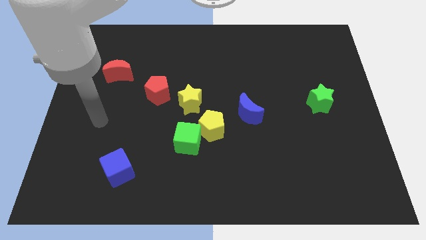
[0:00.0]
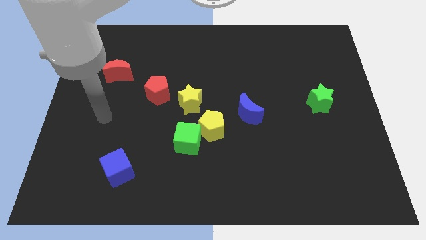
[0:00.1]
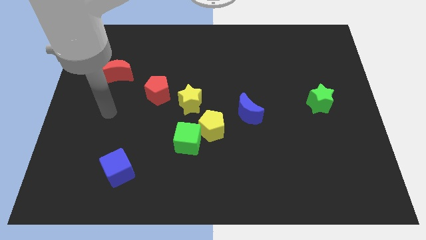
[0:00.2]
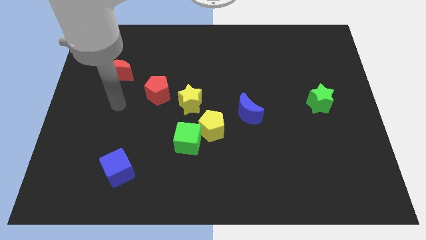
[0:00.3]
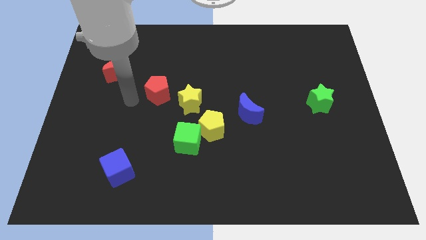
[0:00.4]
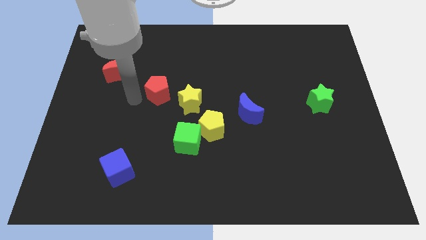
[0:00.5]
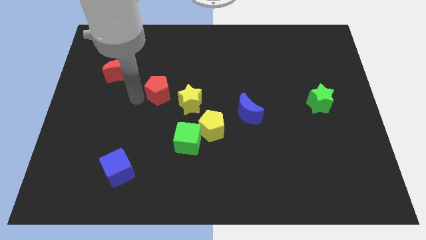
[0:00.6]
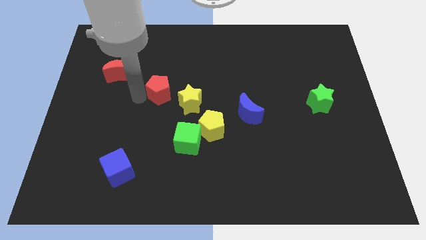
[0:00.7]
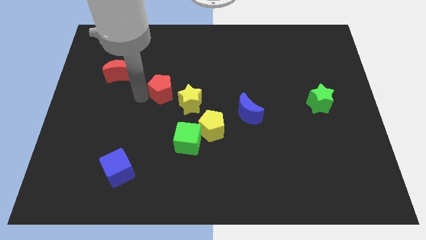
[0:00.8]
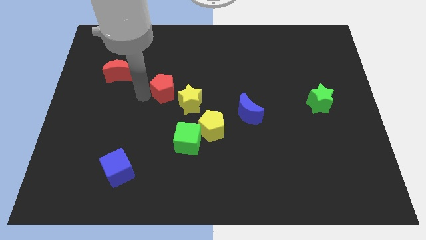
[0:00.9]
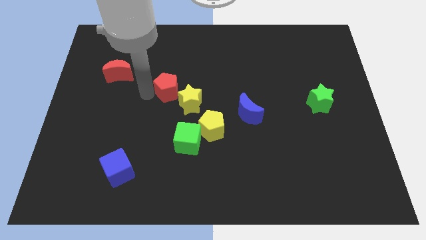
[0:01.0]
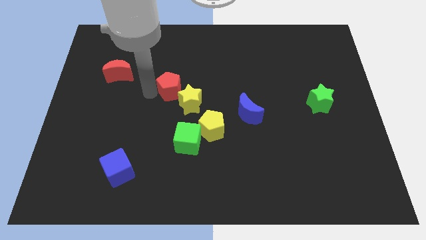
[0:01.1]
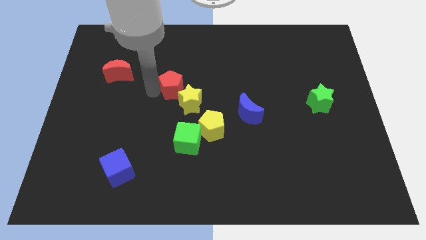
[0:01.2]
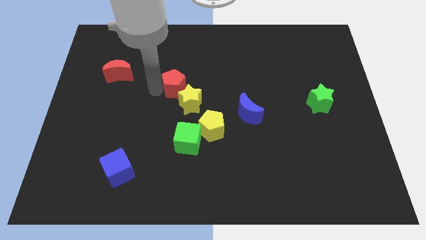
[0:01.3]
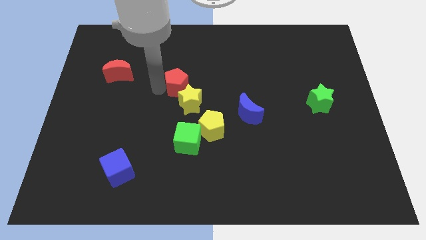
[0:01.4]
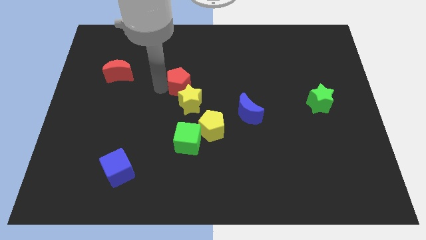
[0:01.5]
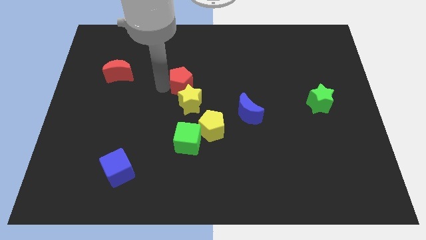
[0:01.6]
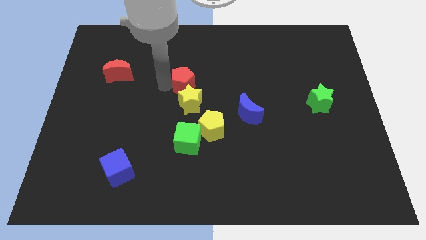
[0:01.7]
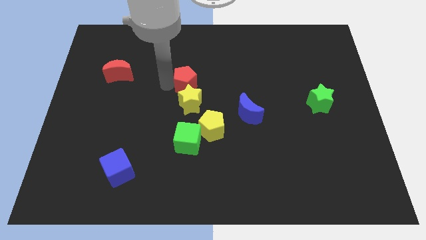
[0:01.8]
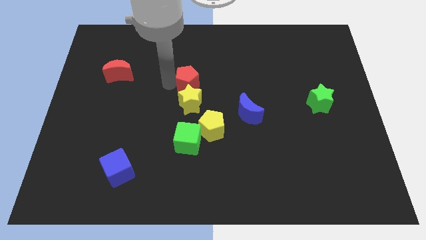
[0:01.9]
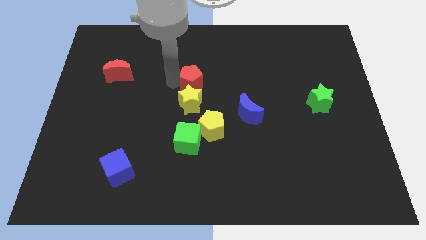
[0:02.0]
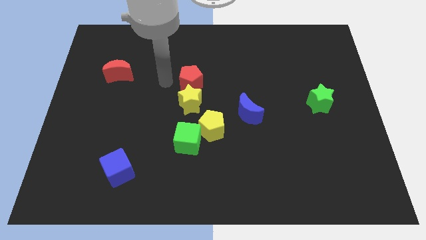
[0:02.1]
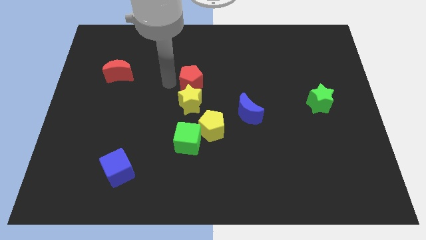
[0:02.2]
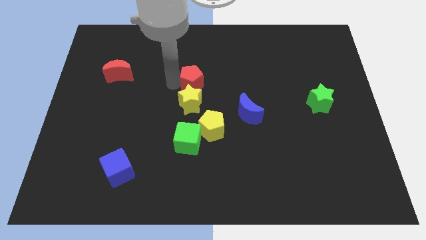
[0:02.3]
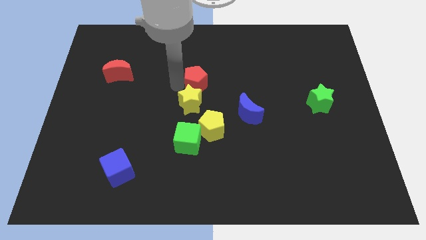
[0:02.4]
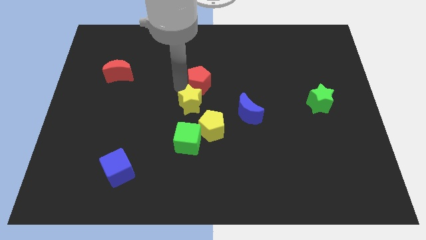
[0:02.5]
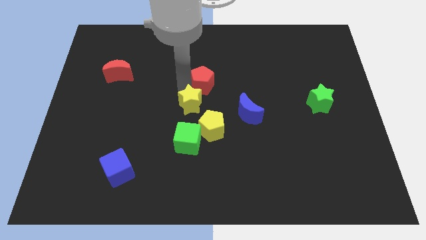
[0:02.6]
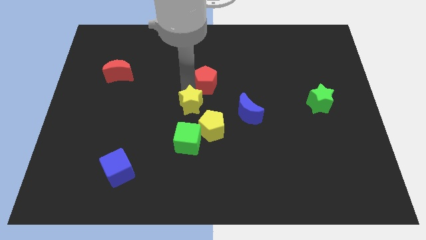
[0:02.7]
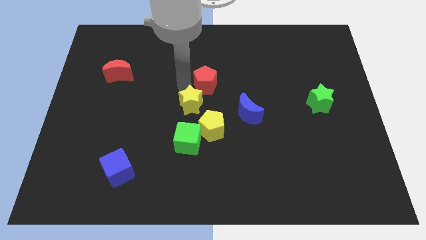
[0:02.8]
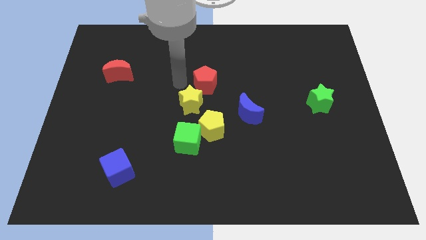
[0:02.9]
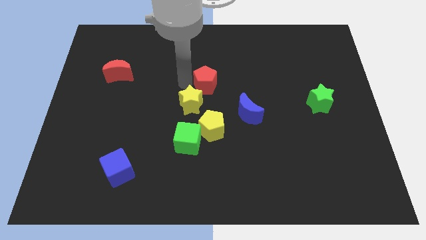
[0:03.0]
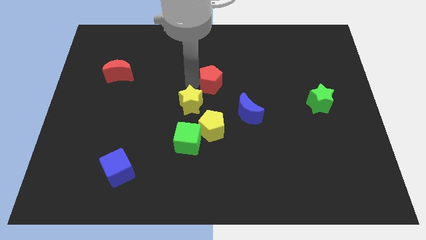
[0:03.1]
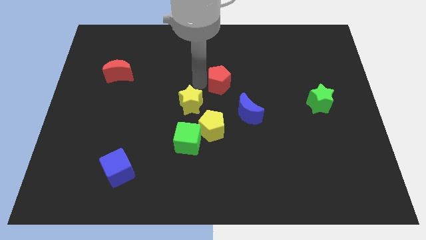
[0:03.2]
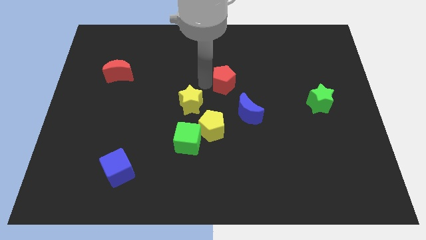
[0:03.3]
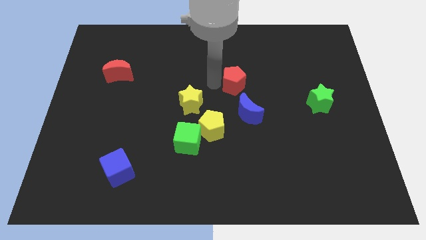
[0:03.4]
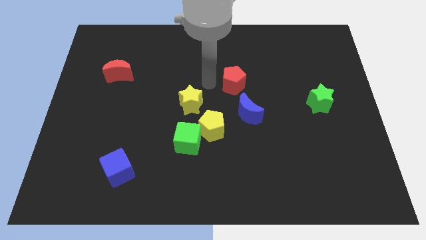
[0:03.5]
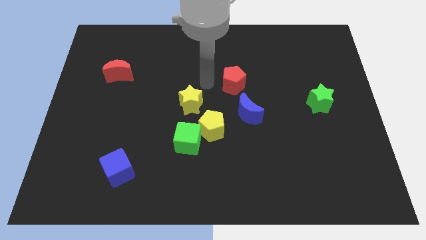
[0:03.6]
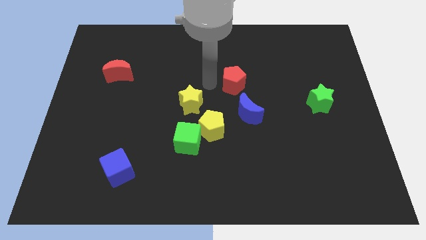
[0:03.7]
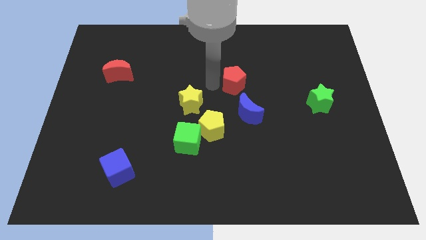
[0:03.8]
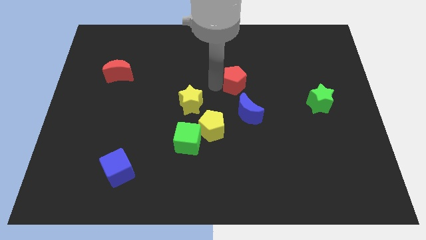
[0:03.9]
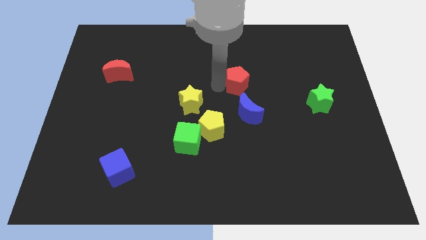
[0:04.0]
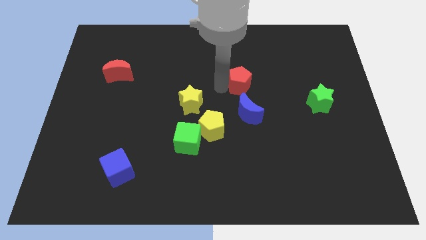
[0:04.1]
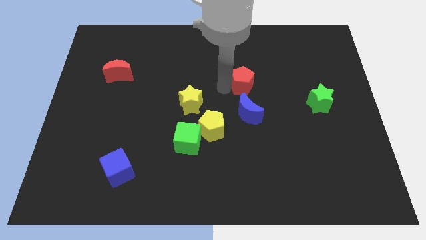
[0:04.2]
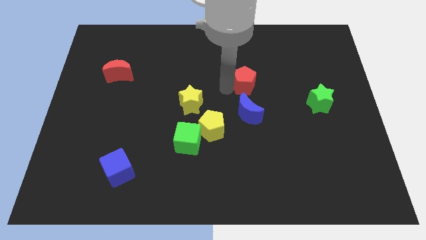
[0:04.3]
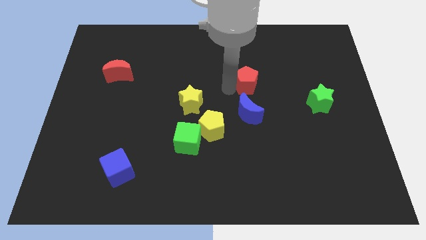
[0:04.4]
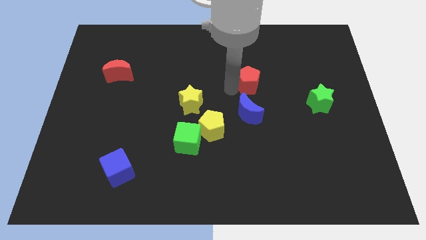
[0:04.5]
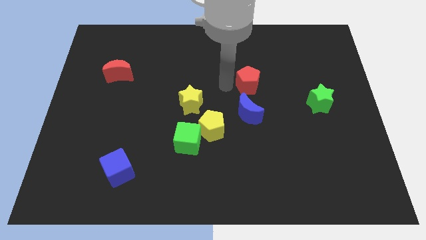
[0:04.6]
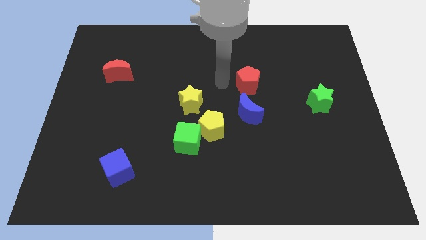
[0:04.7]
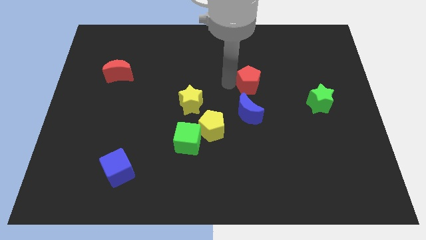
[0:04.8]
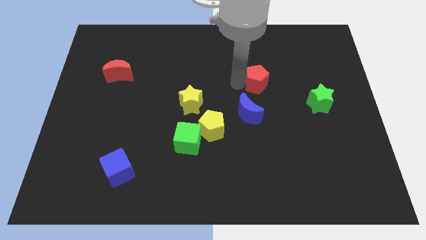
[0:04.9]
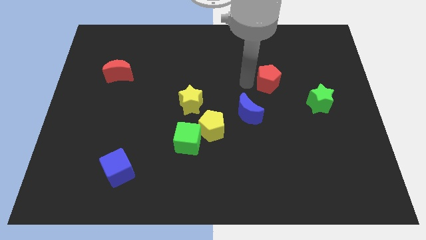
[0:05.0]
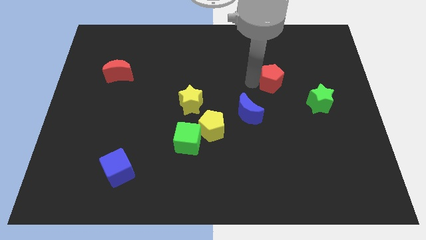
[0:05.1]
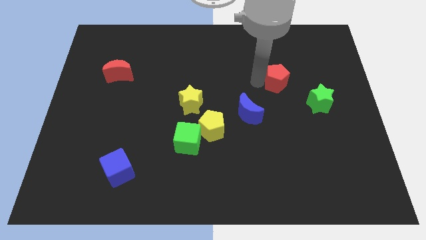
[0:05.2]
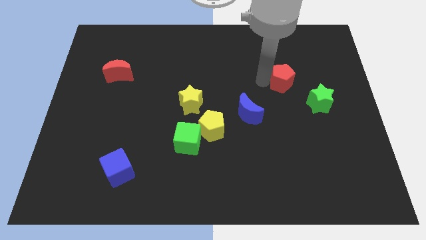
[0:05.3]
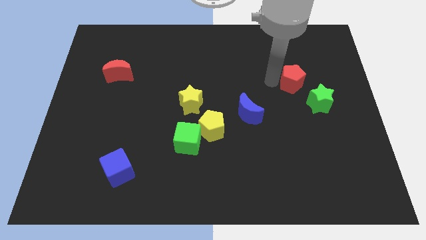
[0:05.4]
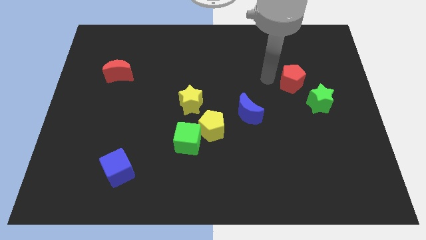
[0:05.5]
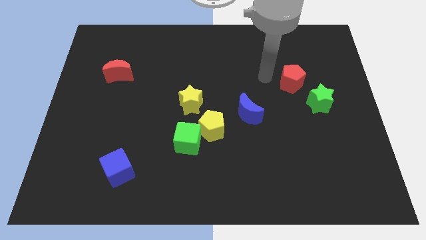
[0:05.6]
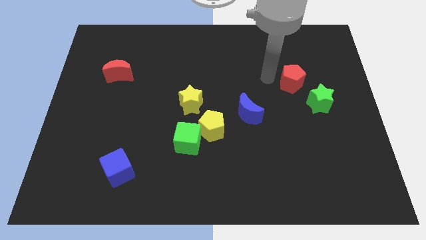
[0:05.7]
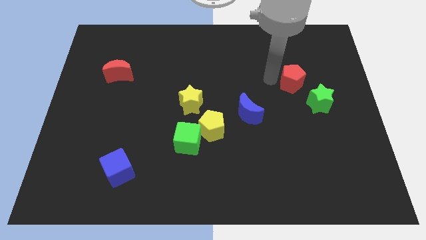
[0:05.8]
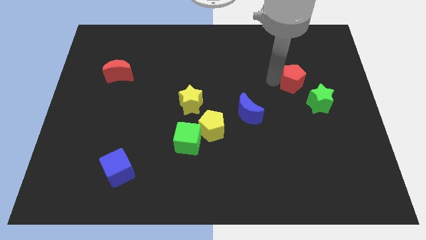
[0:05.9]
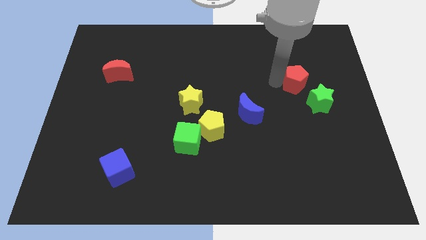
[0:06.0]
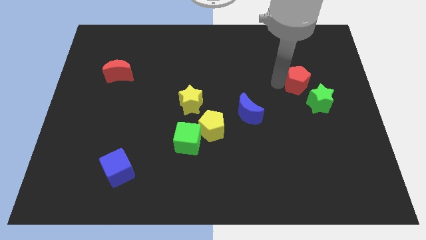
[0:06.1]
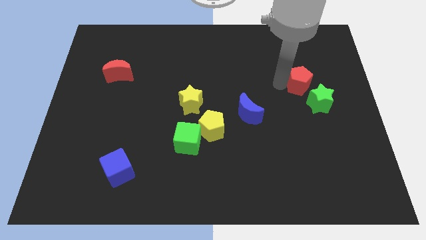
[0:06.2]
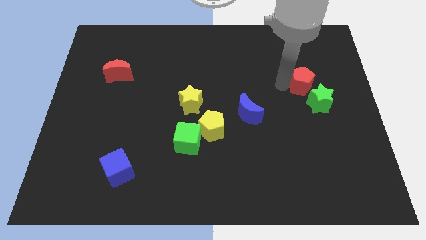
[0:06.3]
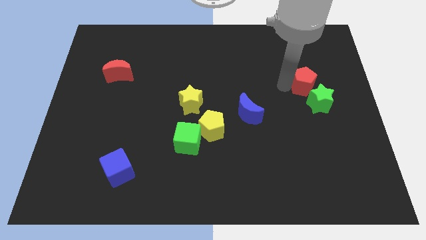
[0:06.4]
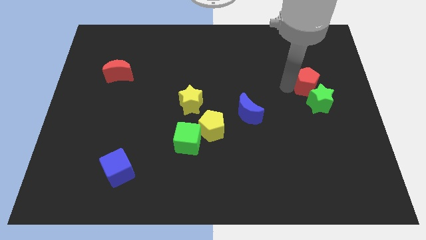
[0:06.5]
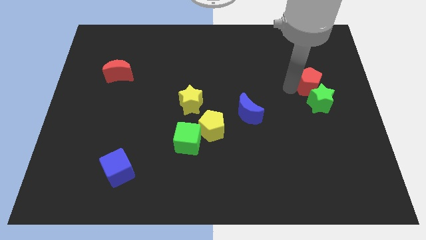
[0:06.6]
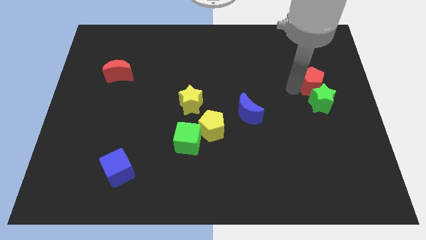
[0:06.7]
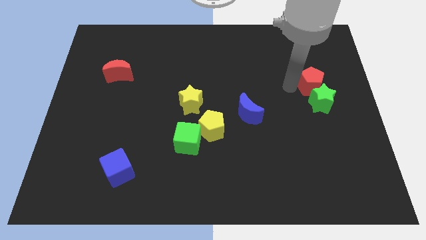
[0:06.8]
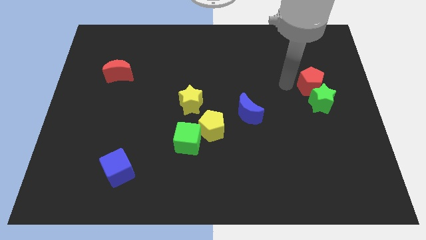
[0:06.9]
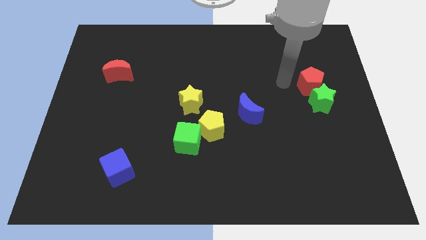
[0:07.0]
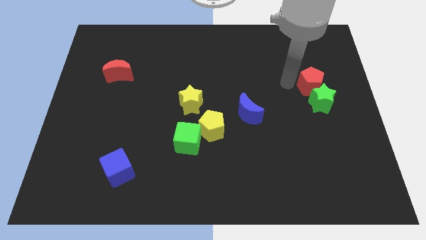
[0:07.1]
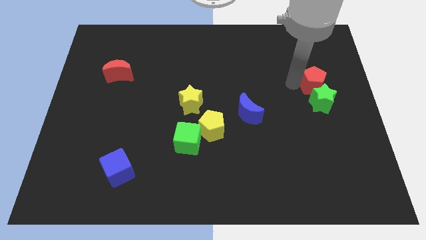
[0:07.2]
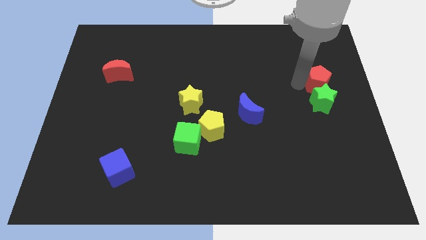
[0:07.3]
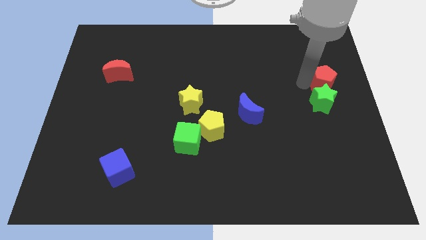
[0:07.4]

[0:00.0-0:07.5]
push the red pentagon to the right side
